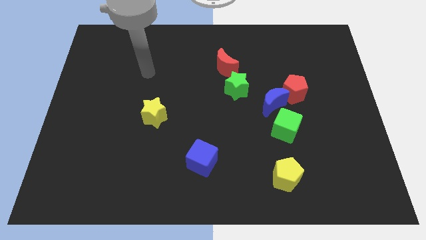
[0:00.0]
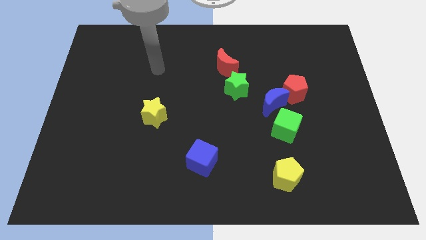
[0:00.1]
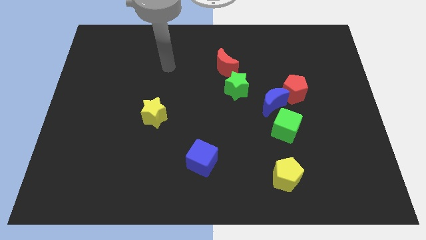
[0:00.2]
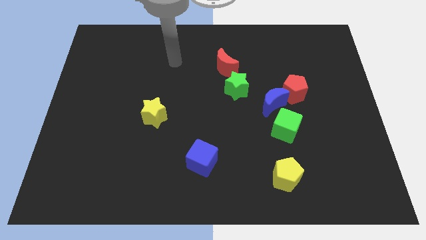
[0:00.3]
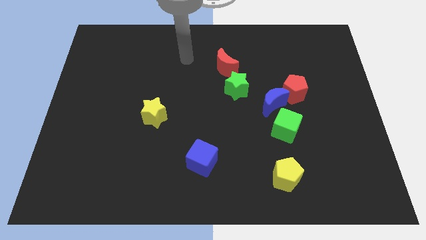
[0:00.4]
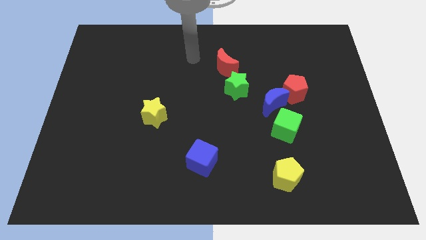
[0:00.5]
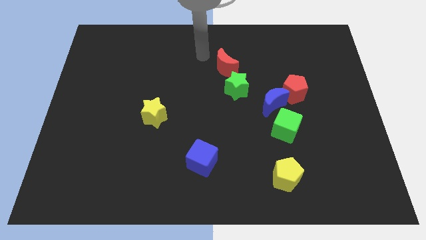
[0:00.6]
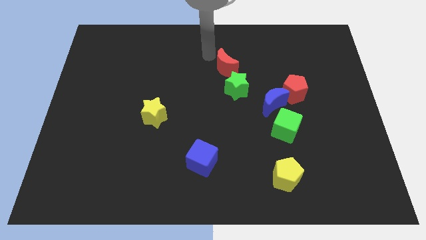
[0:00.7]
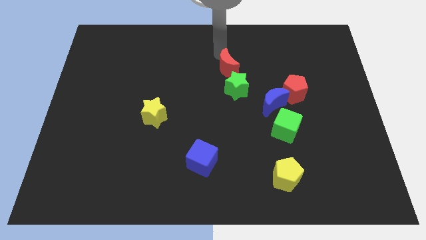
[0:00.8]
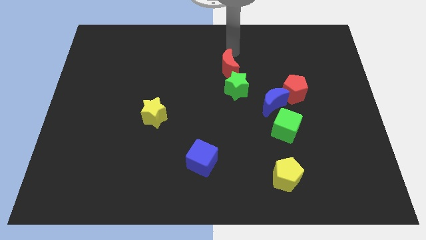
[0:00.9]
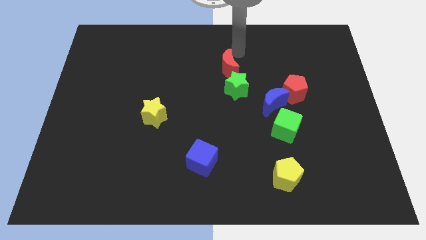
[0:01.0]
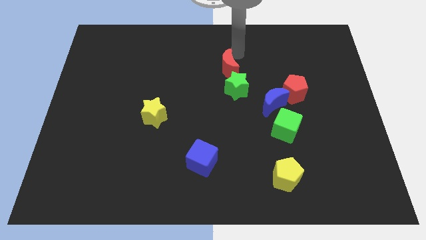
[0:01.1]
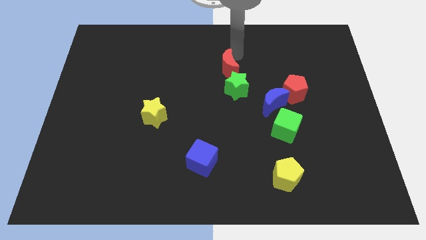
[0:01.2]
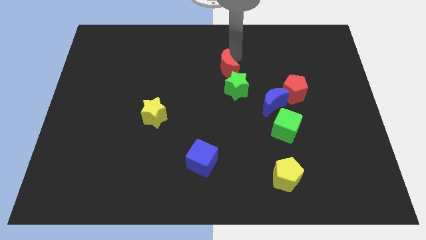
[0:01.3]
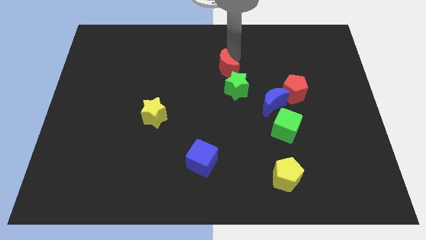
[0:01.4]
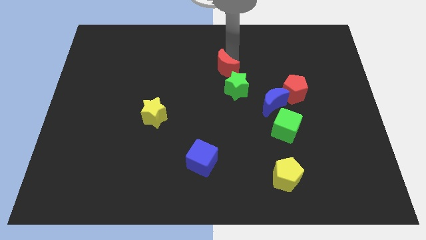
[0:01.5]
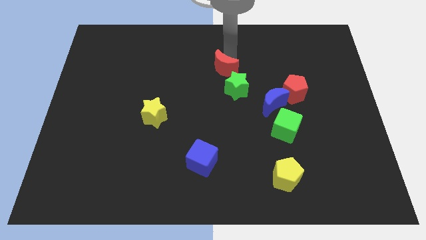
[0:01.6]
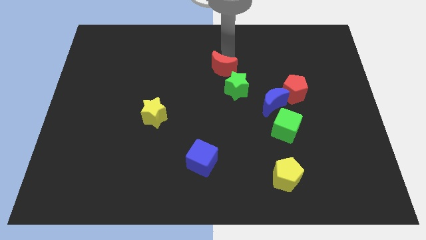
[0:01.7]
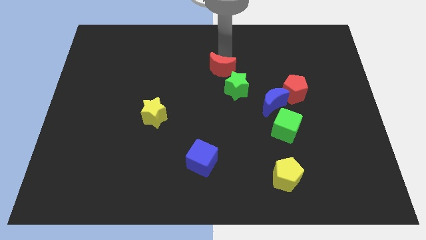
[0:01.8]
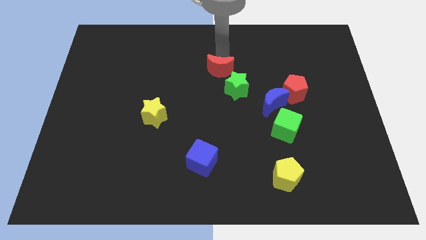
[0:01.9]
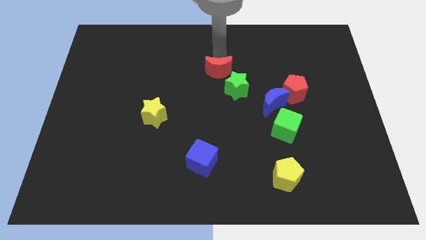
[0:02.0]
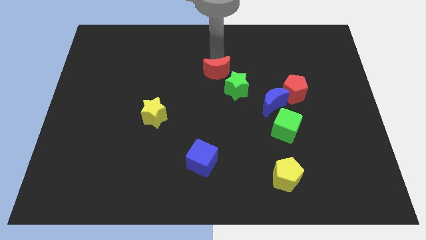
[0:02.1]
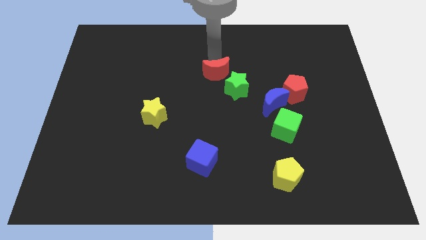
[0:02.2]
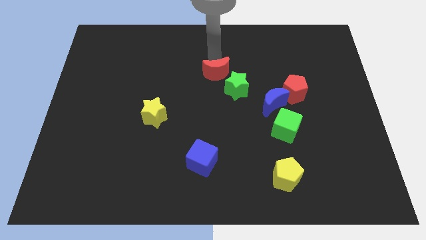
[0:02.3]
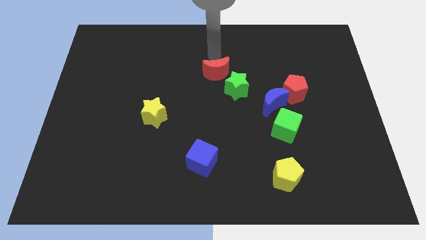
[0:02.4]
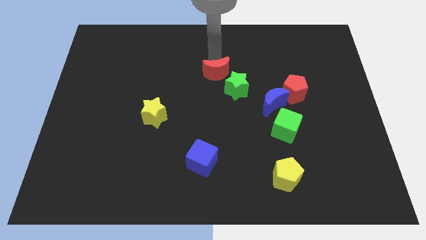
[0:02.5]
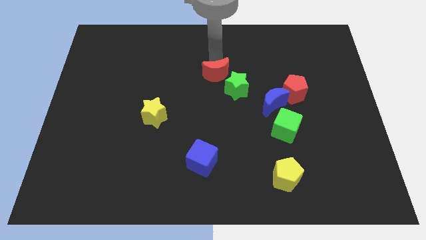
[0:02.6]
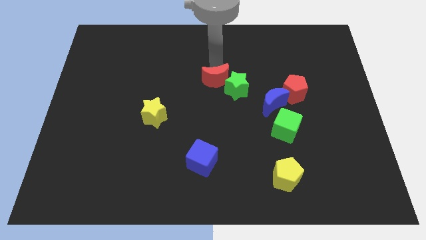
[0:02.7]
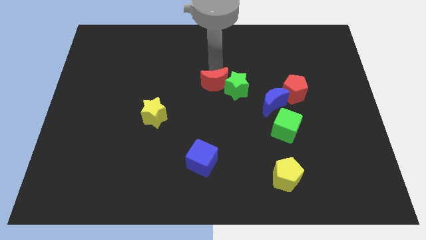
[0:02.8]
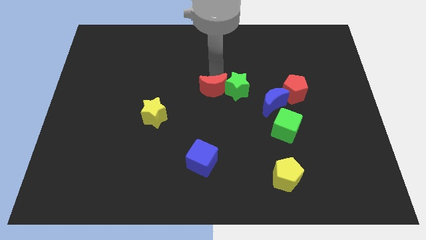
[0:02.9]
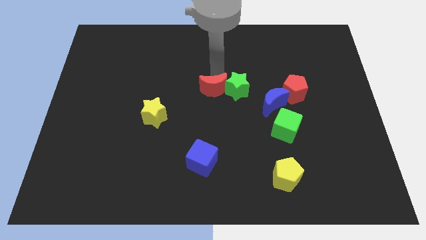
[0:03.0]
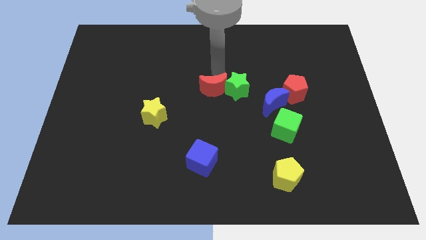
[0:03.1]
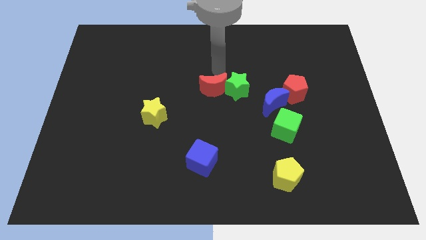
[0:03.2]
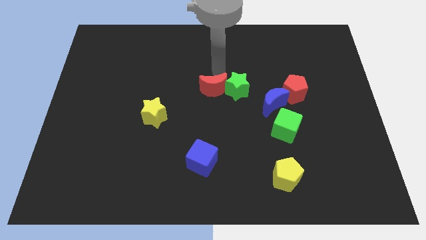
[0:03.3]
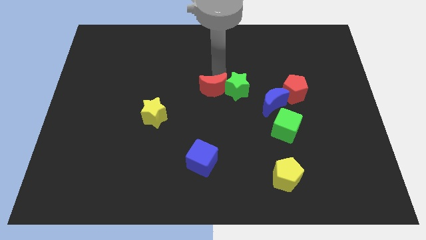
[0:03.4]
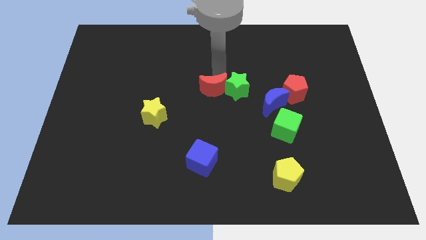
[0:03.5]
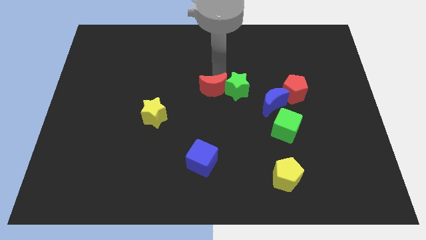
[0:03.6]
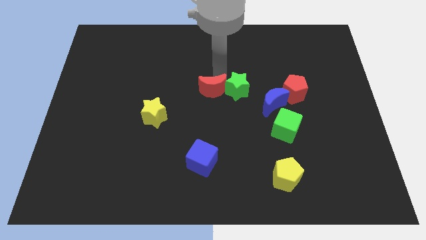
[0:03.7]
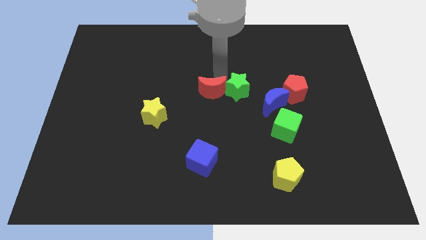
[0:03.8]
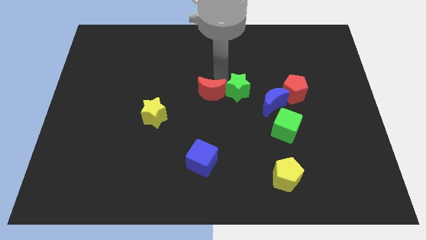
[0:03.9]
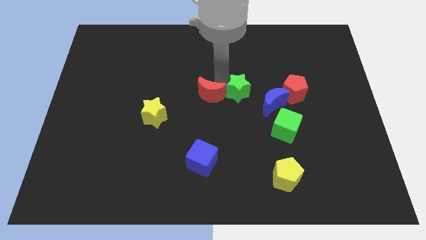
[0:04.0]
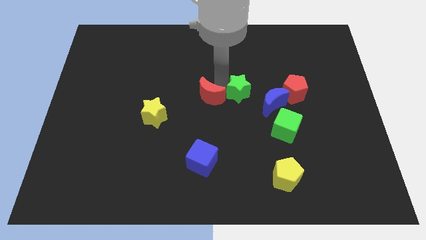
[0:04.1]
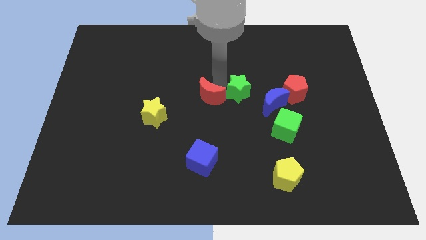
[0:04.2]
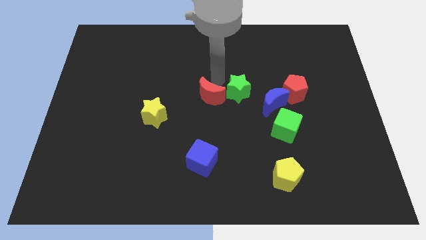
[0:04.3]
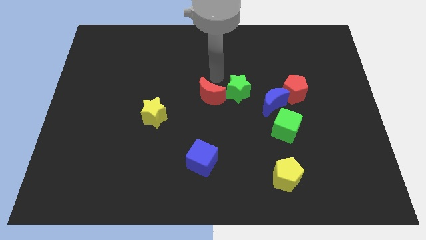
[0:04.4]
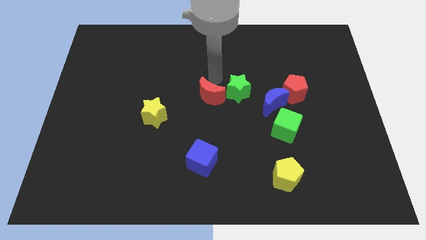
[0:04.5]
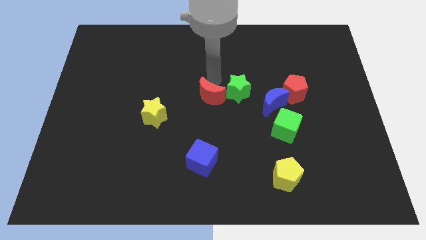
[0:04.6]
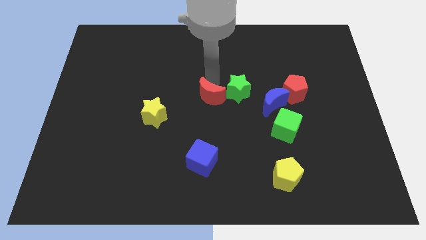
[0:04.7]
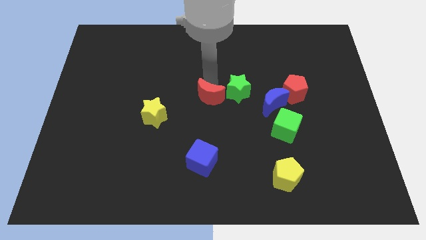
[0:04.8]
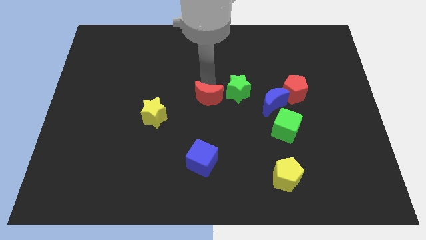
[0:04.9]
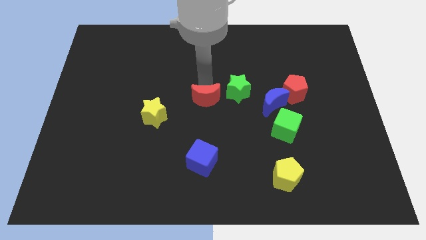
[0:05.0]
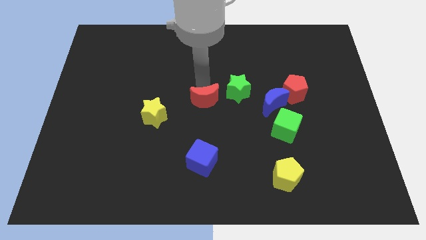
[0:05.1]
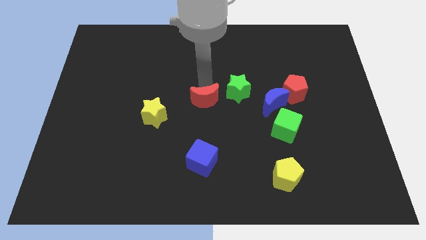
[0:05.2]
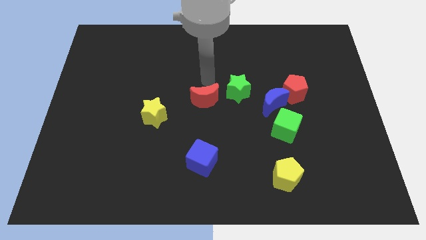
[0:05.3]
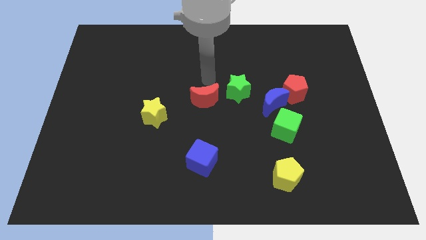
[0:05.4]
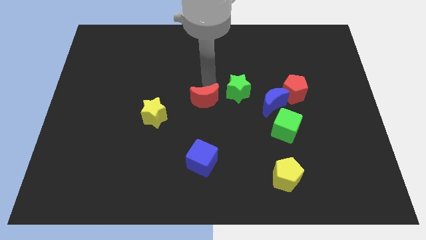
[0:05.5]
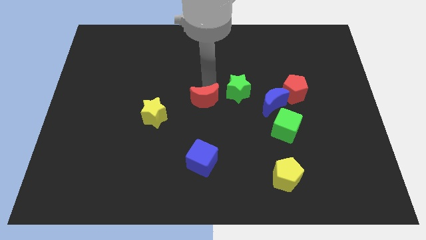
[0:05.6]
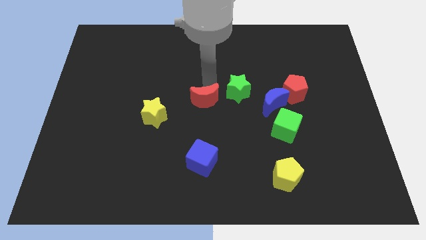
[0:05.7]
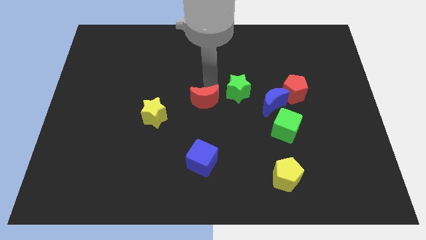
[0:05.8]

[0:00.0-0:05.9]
push the red moon above the blue cube

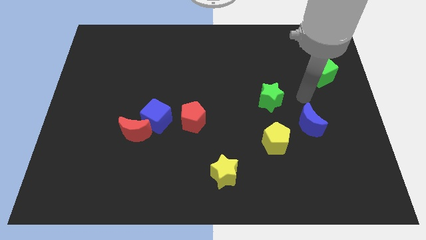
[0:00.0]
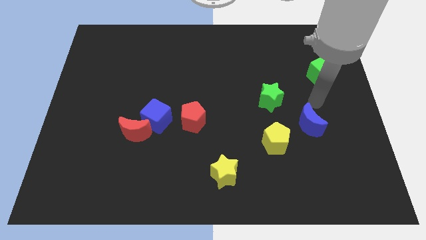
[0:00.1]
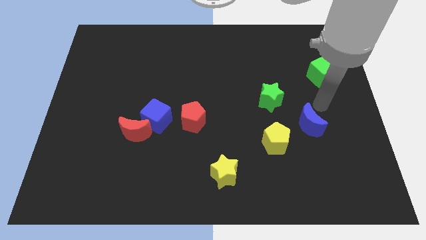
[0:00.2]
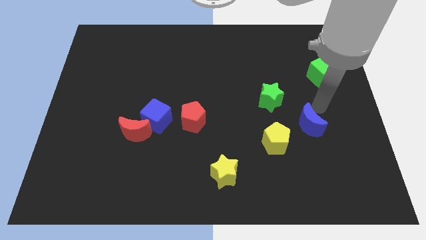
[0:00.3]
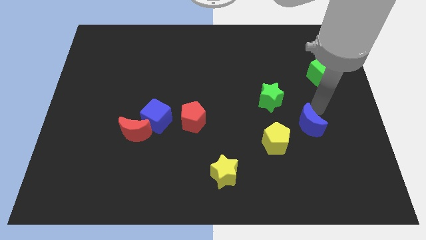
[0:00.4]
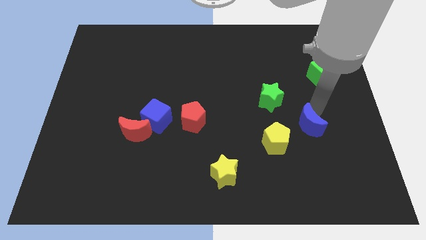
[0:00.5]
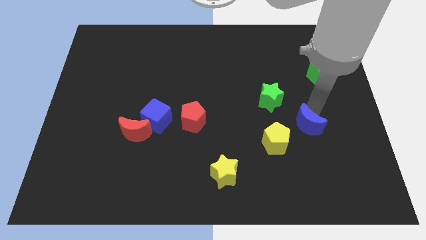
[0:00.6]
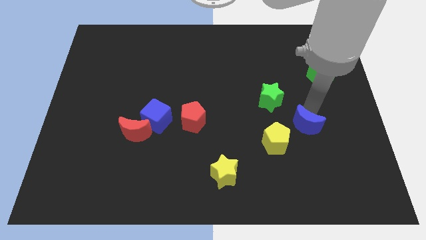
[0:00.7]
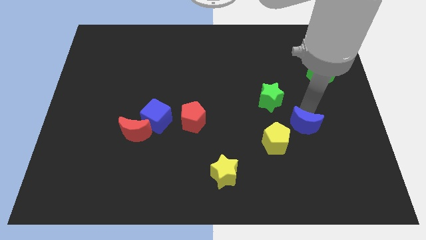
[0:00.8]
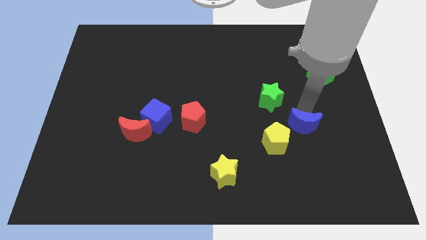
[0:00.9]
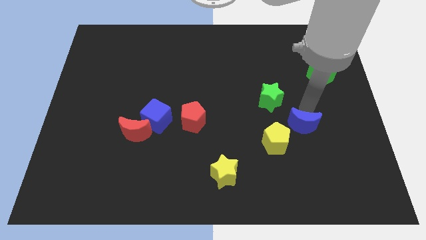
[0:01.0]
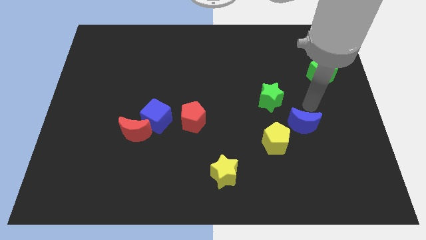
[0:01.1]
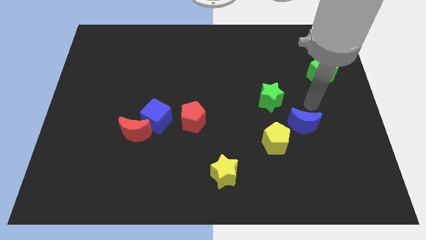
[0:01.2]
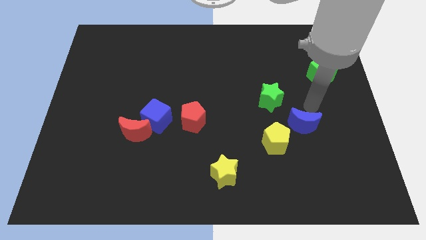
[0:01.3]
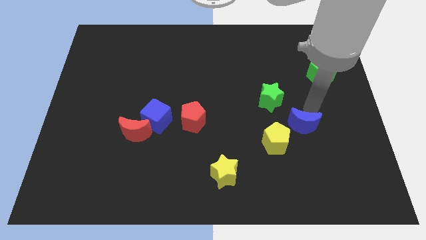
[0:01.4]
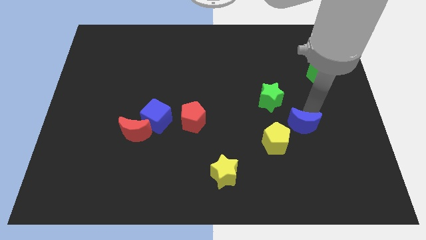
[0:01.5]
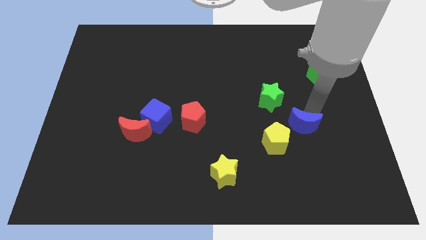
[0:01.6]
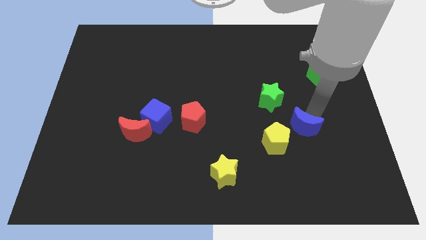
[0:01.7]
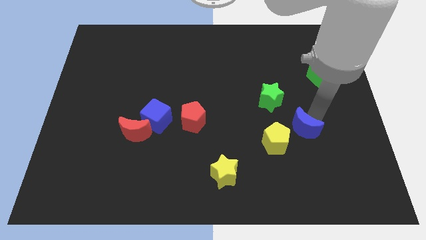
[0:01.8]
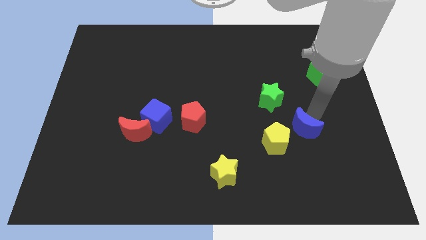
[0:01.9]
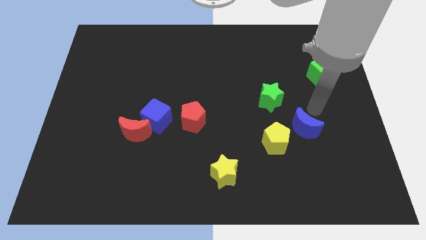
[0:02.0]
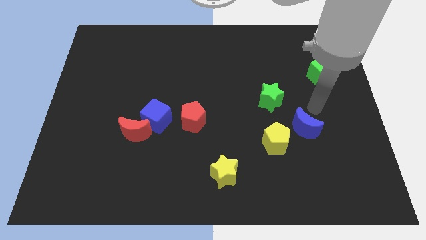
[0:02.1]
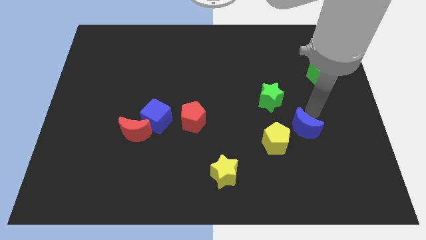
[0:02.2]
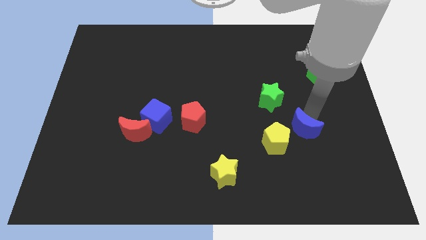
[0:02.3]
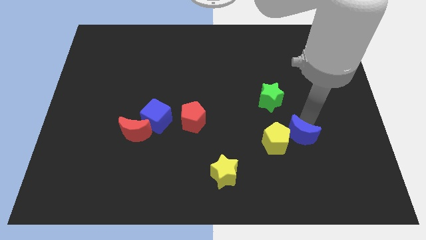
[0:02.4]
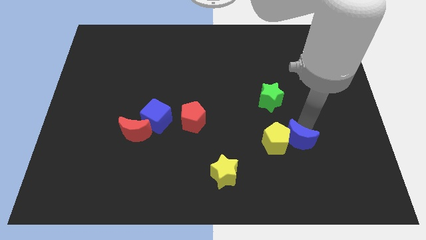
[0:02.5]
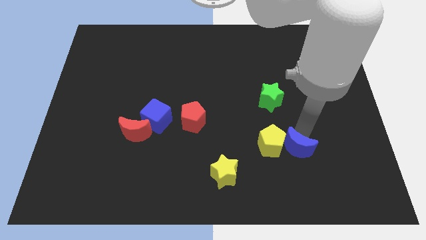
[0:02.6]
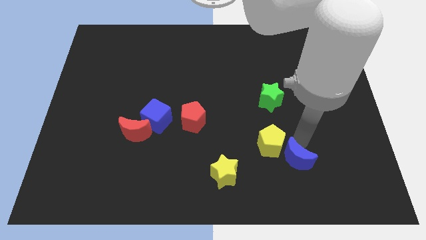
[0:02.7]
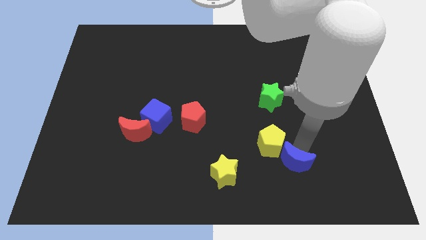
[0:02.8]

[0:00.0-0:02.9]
slide the blue moon to the right of the yellow star
